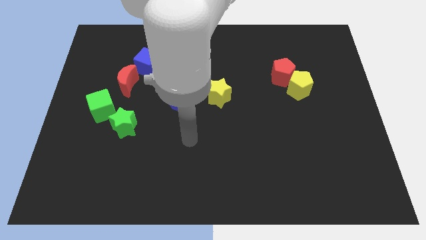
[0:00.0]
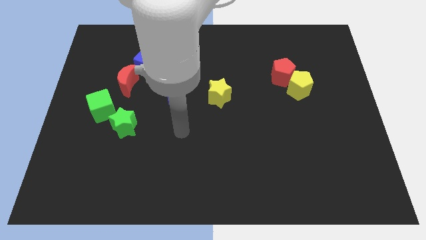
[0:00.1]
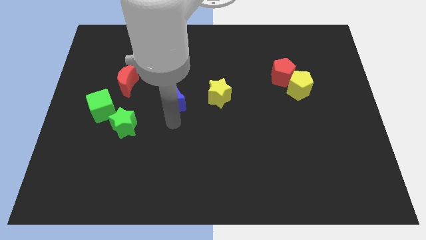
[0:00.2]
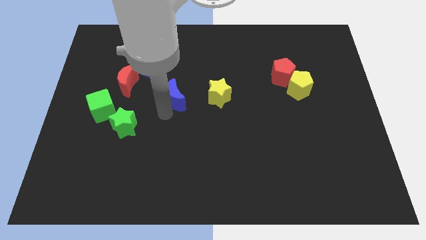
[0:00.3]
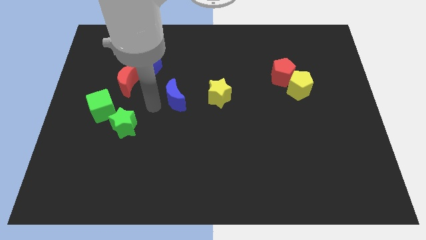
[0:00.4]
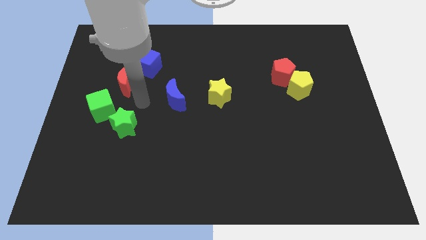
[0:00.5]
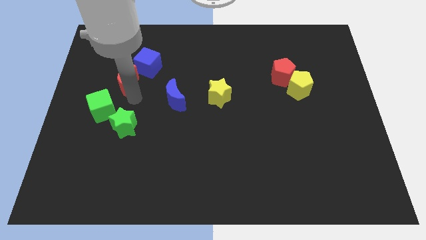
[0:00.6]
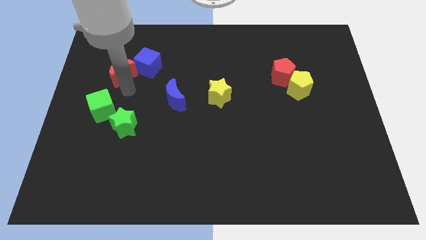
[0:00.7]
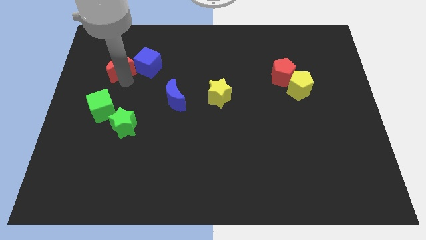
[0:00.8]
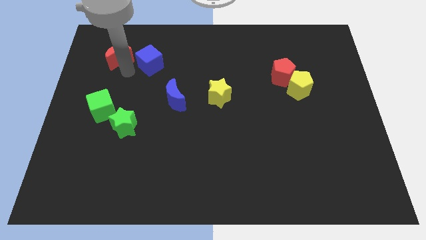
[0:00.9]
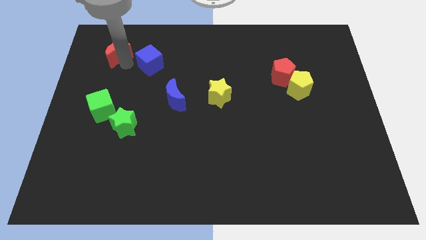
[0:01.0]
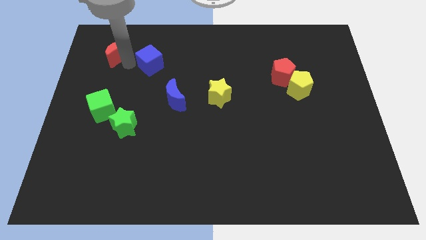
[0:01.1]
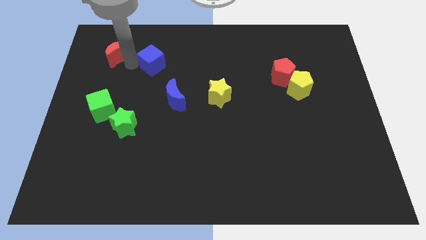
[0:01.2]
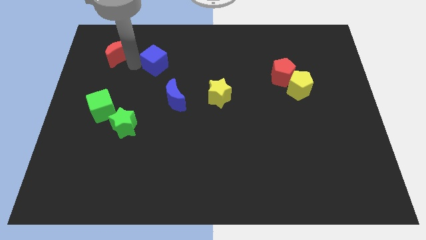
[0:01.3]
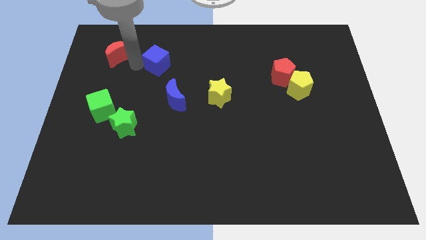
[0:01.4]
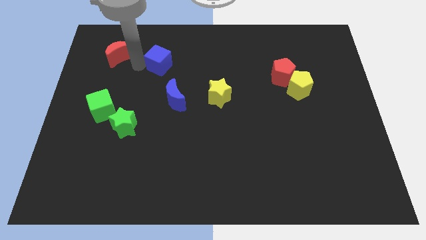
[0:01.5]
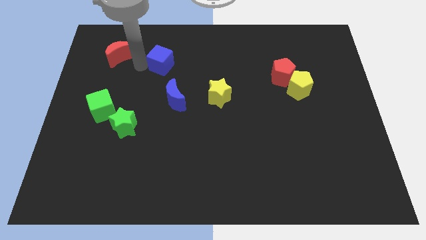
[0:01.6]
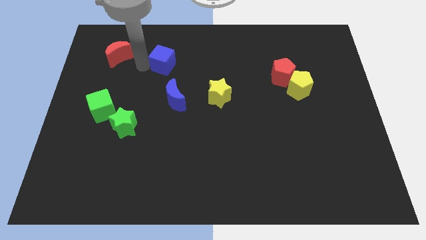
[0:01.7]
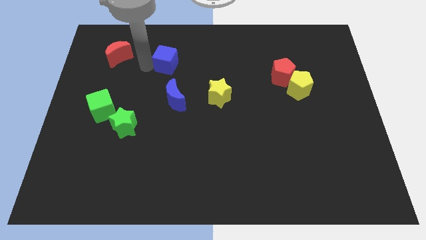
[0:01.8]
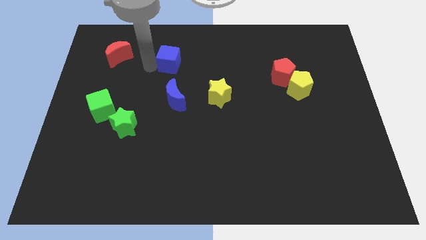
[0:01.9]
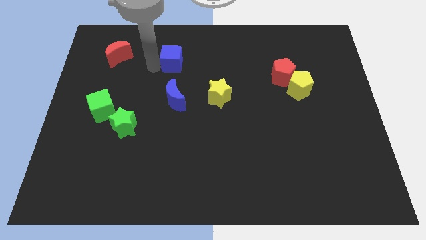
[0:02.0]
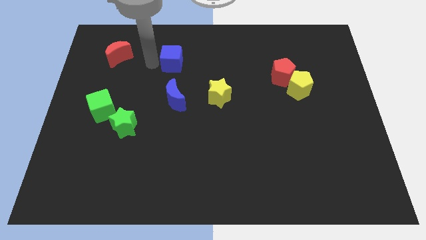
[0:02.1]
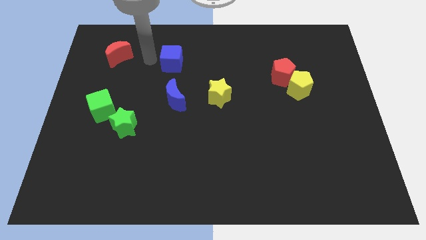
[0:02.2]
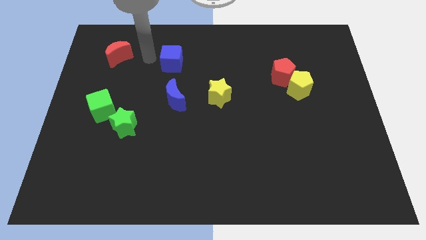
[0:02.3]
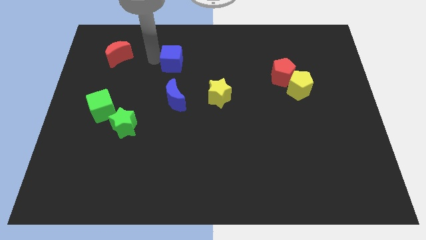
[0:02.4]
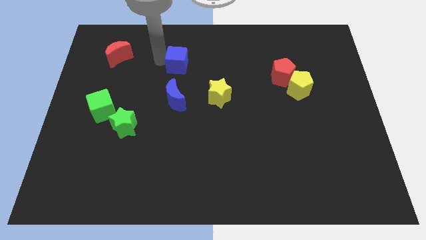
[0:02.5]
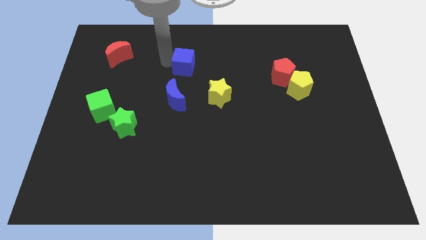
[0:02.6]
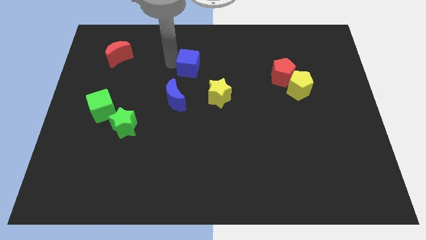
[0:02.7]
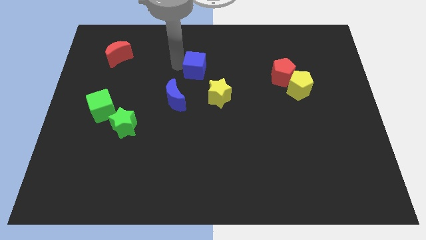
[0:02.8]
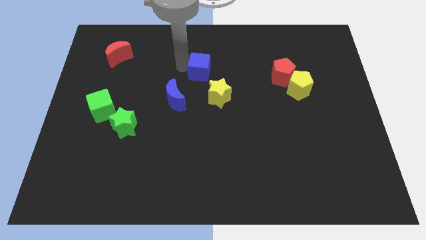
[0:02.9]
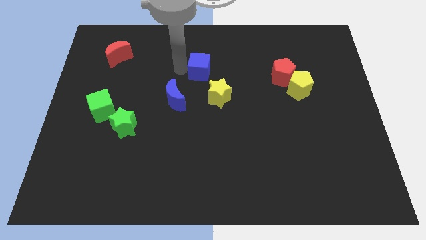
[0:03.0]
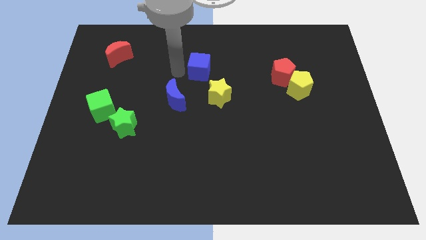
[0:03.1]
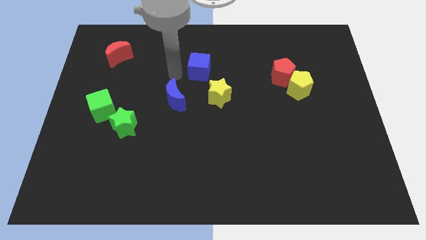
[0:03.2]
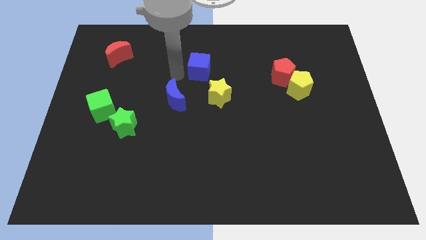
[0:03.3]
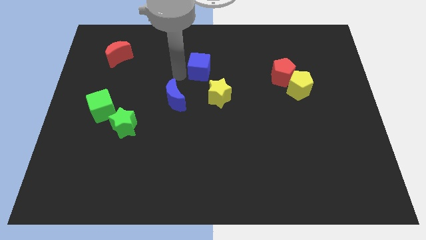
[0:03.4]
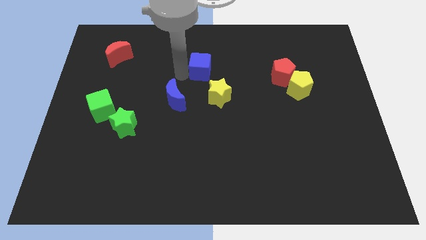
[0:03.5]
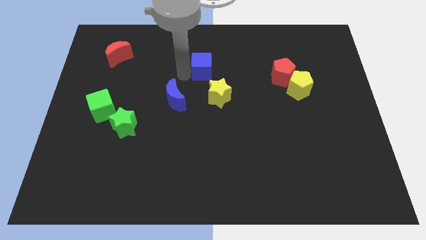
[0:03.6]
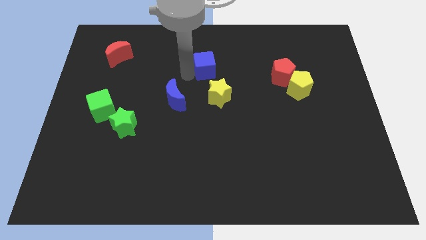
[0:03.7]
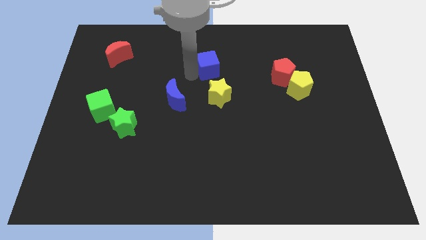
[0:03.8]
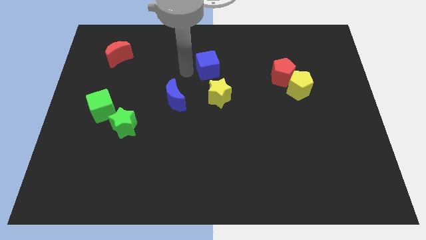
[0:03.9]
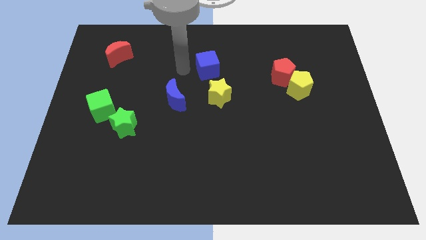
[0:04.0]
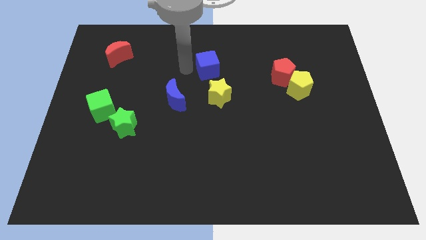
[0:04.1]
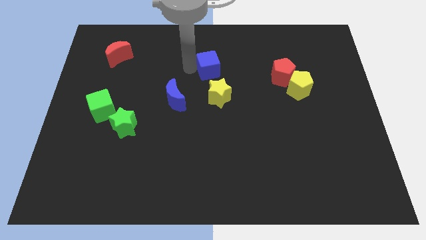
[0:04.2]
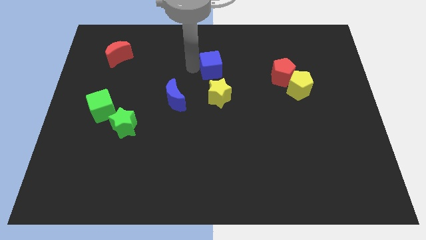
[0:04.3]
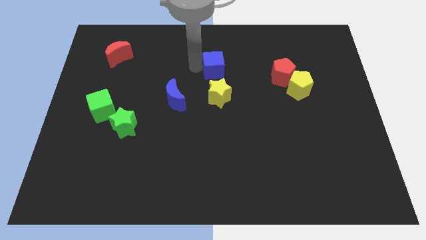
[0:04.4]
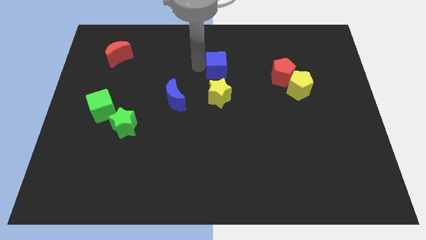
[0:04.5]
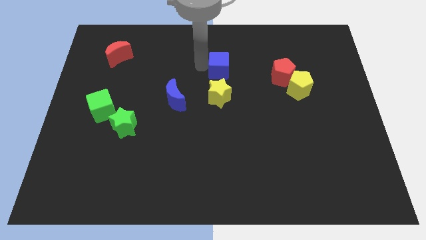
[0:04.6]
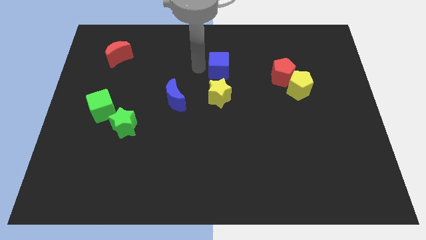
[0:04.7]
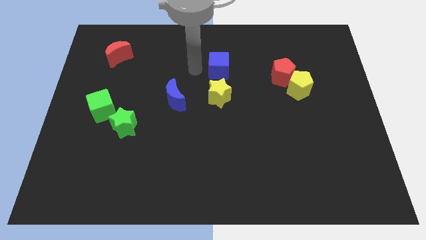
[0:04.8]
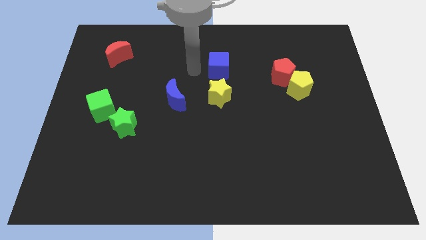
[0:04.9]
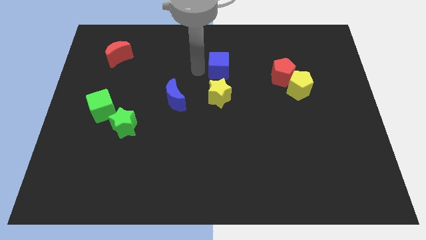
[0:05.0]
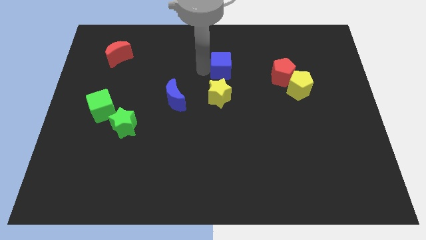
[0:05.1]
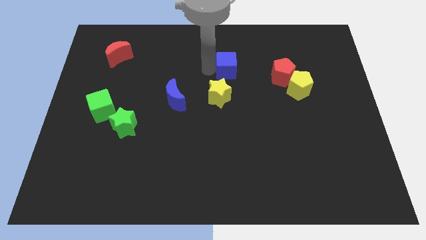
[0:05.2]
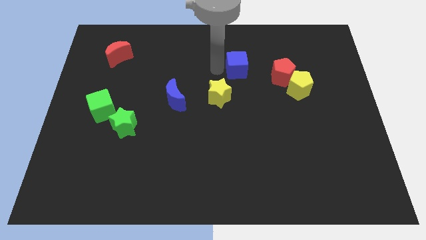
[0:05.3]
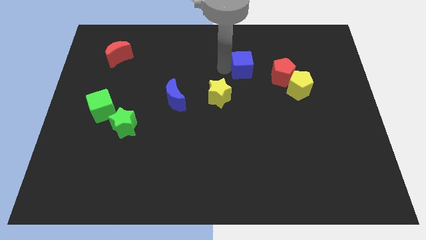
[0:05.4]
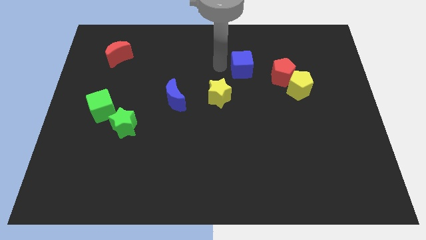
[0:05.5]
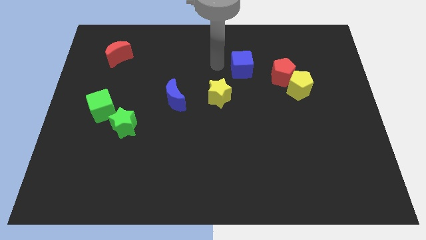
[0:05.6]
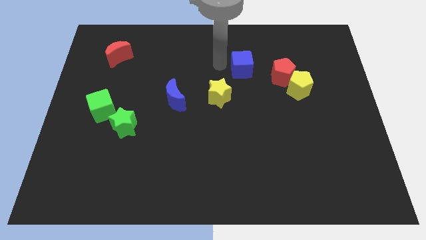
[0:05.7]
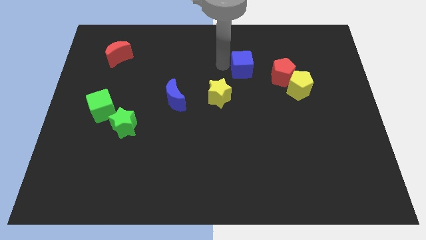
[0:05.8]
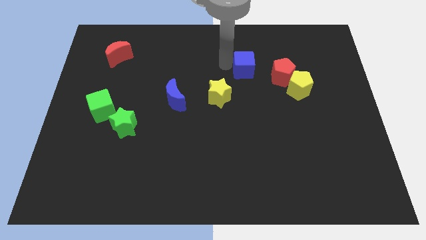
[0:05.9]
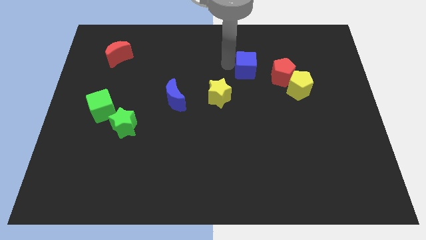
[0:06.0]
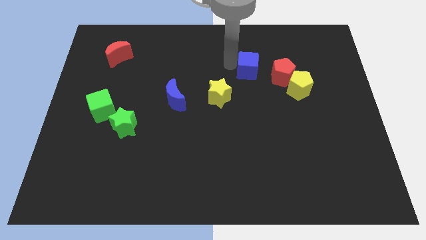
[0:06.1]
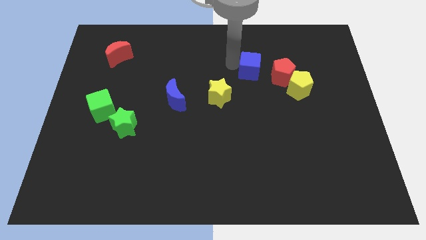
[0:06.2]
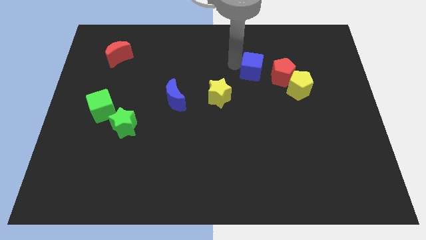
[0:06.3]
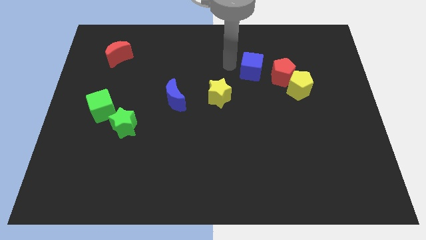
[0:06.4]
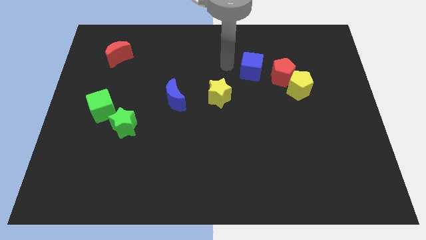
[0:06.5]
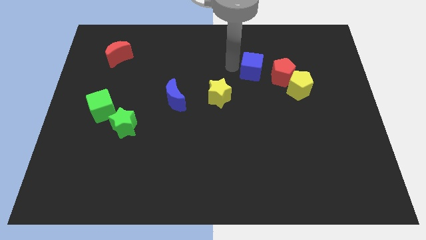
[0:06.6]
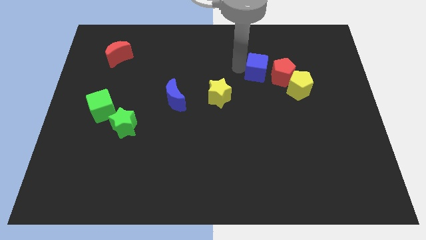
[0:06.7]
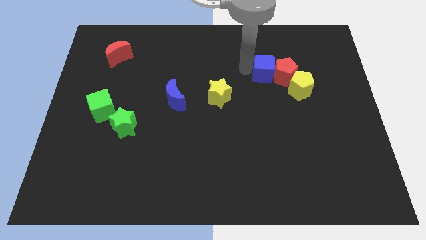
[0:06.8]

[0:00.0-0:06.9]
slide the blue cube to the red pentagon

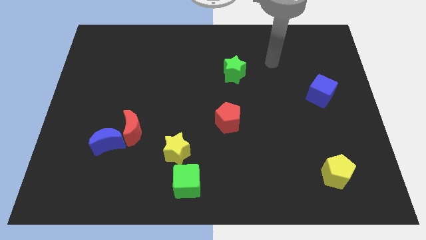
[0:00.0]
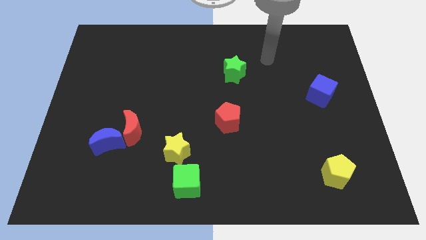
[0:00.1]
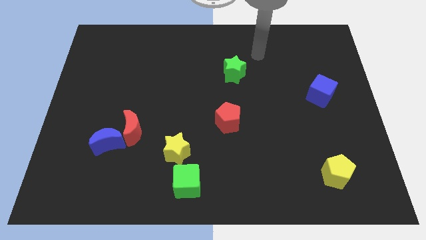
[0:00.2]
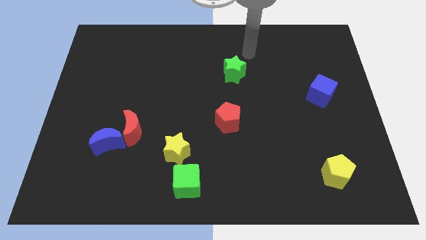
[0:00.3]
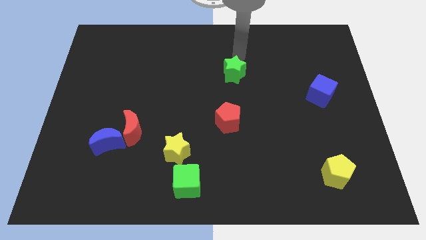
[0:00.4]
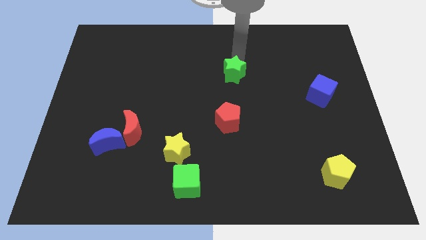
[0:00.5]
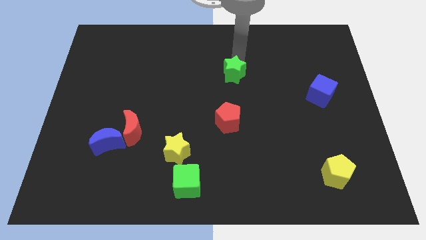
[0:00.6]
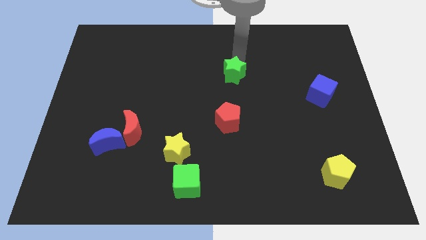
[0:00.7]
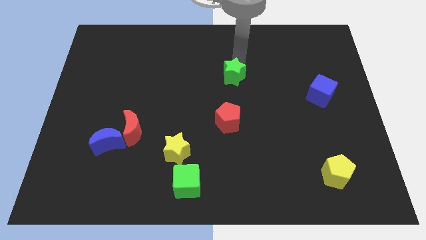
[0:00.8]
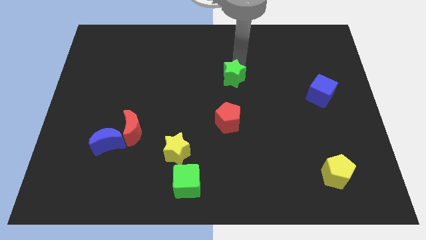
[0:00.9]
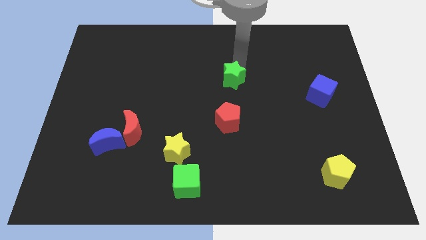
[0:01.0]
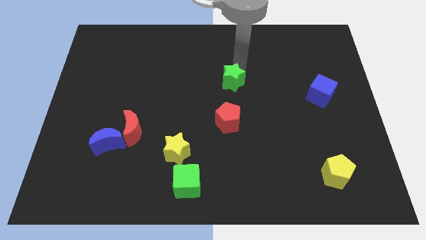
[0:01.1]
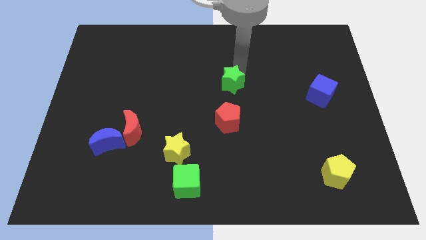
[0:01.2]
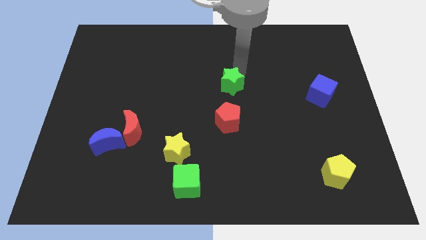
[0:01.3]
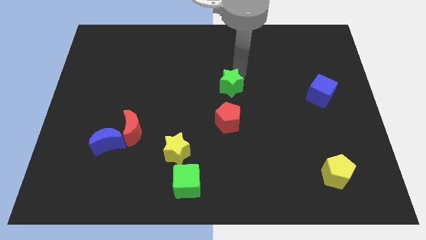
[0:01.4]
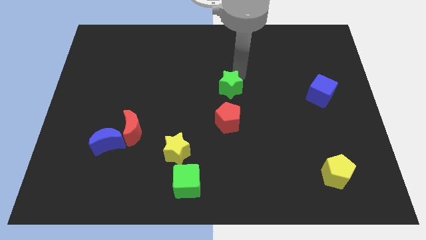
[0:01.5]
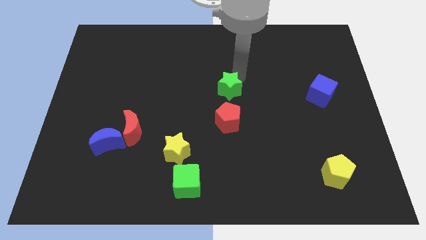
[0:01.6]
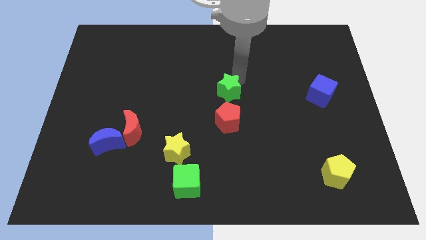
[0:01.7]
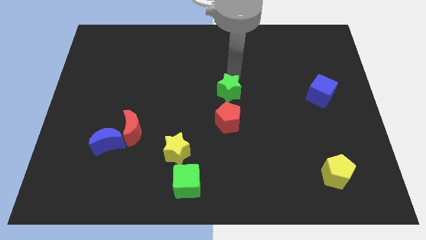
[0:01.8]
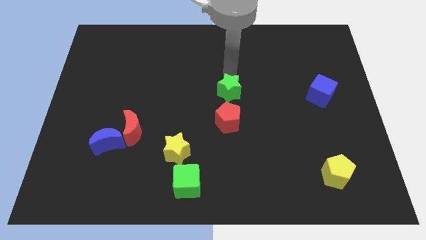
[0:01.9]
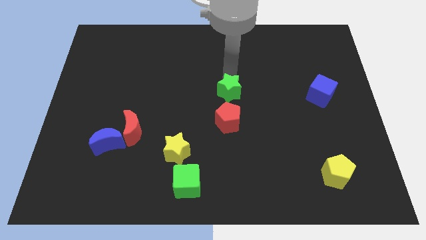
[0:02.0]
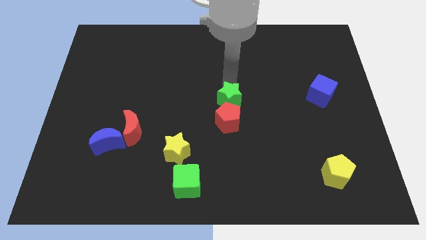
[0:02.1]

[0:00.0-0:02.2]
move the green star next to the red pentagon
